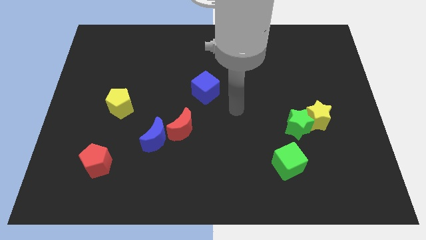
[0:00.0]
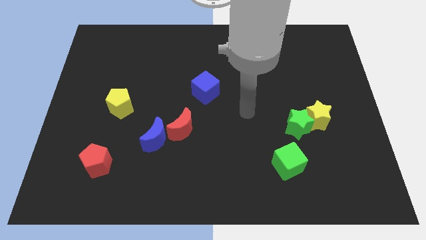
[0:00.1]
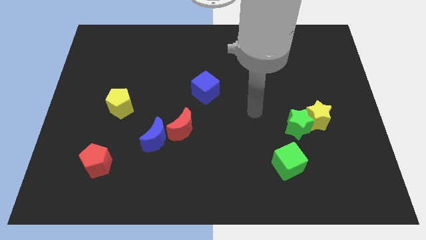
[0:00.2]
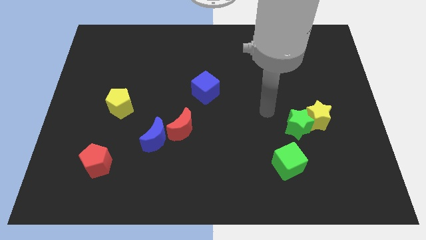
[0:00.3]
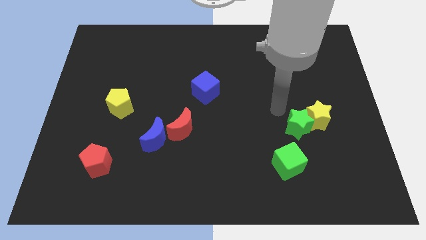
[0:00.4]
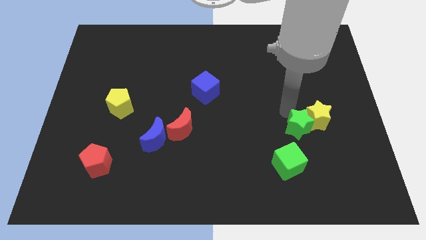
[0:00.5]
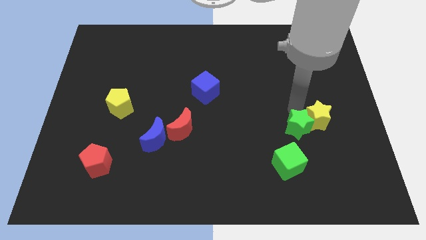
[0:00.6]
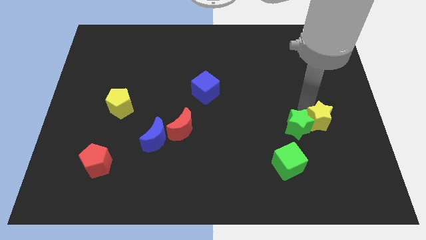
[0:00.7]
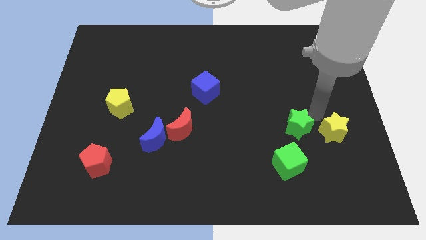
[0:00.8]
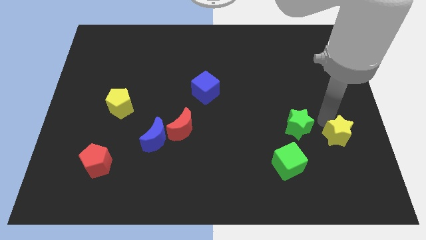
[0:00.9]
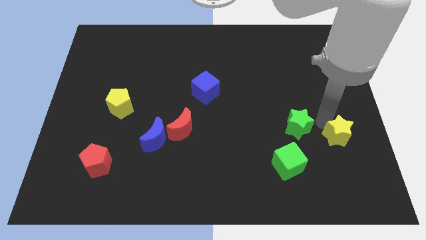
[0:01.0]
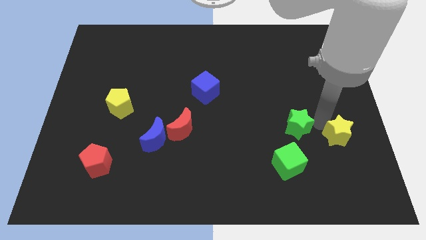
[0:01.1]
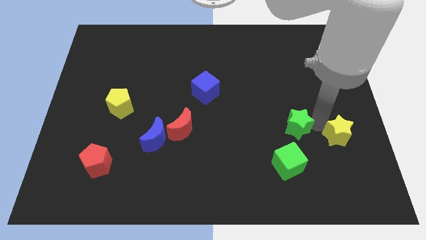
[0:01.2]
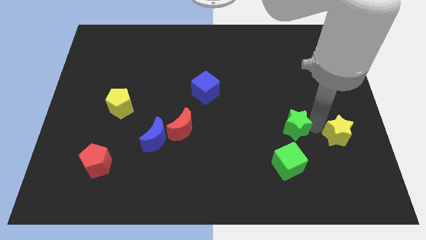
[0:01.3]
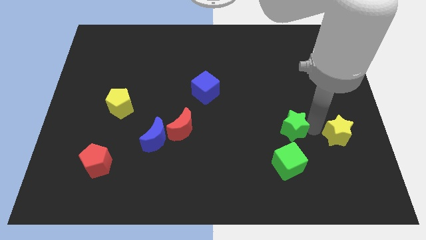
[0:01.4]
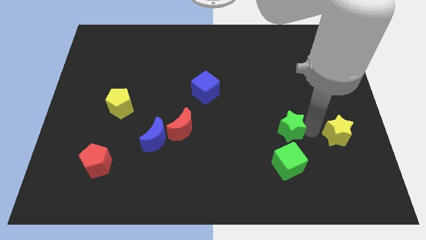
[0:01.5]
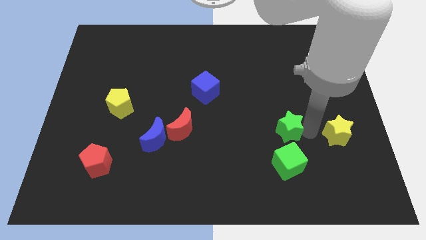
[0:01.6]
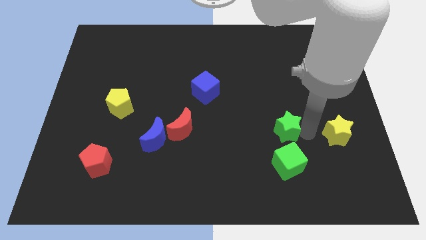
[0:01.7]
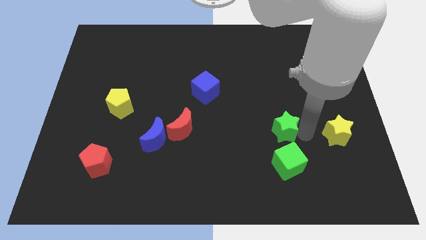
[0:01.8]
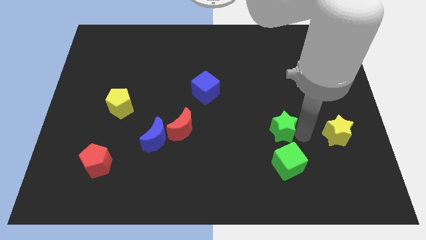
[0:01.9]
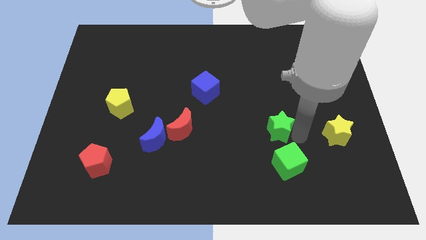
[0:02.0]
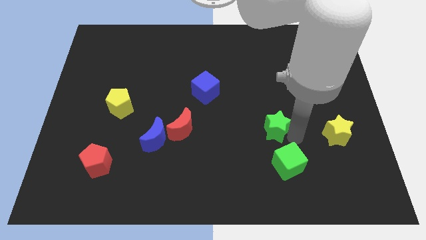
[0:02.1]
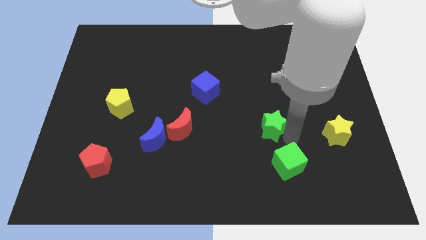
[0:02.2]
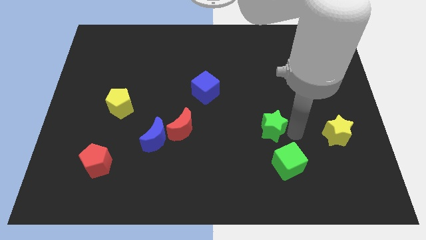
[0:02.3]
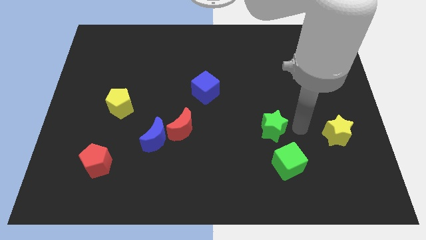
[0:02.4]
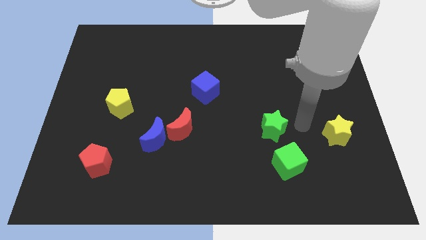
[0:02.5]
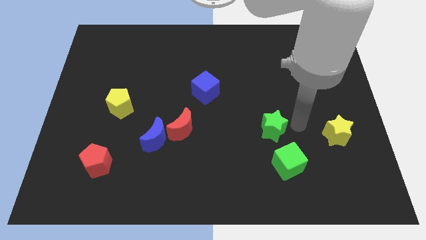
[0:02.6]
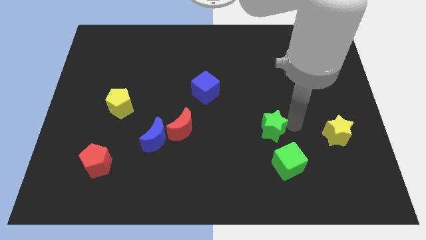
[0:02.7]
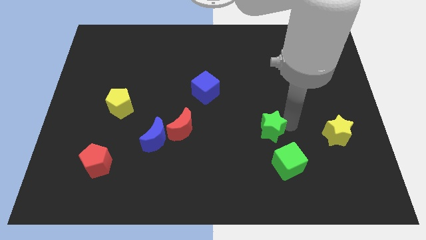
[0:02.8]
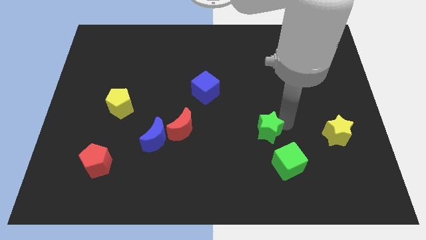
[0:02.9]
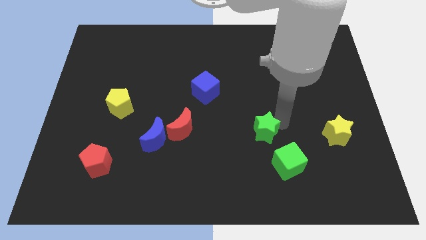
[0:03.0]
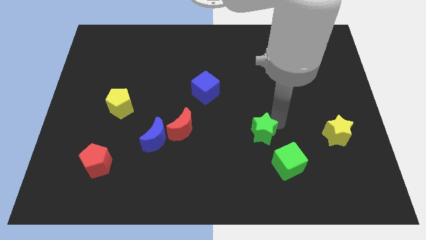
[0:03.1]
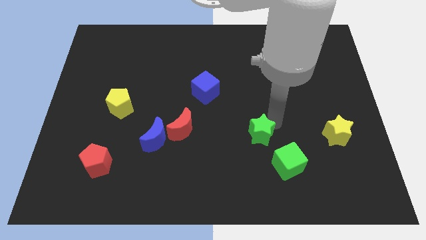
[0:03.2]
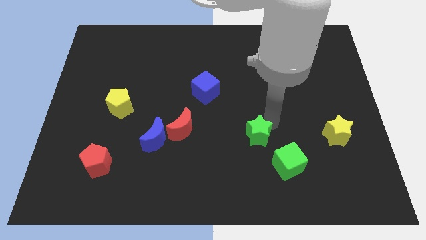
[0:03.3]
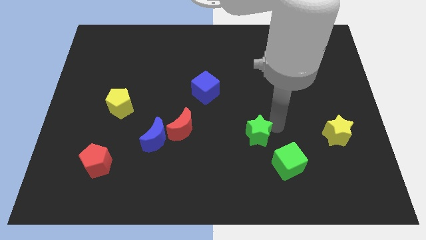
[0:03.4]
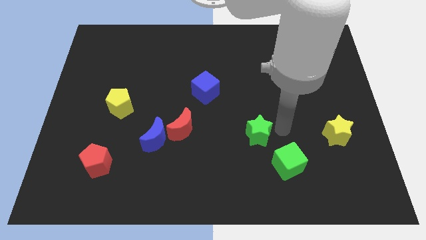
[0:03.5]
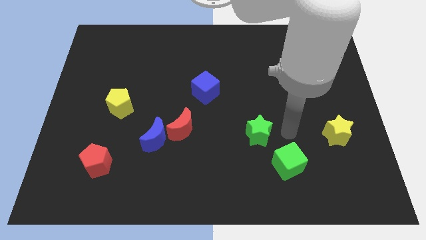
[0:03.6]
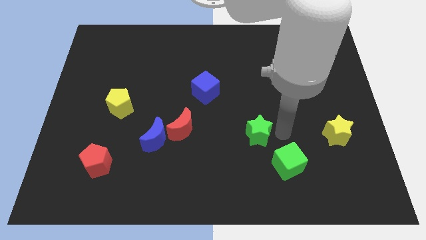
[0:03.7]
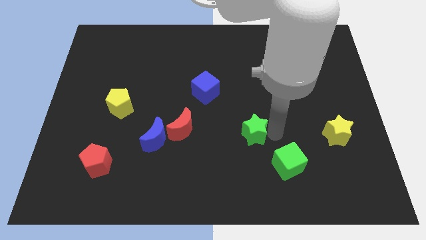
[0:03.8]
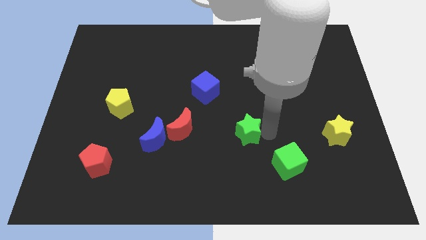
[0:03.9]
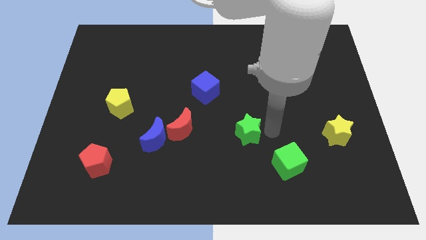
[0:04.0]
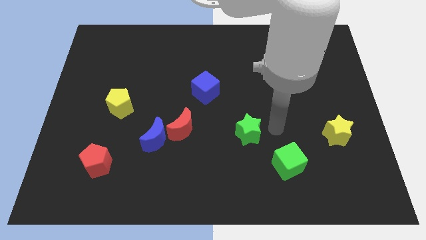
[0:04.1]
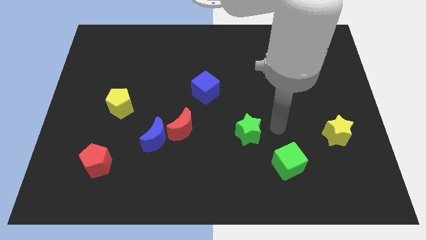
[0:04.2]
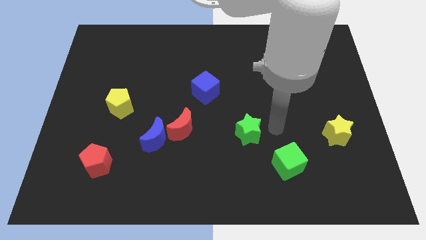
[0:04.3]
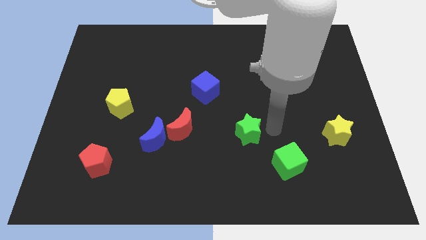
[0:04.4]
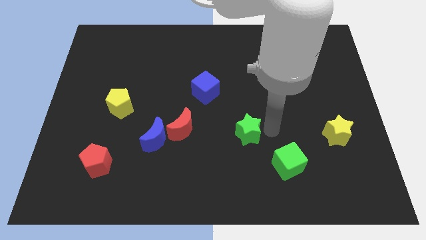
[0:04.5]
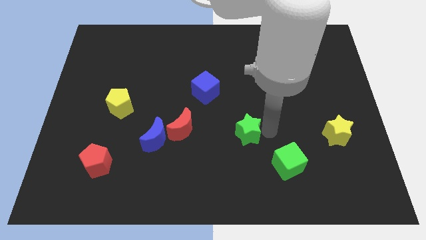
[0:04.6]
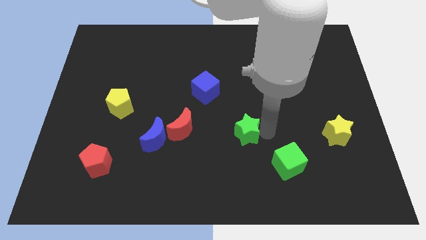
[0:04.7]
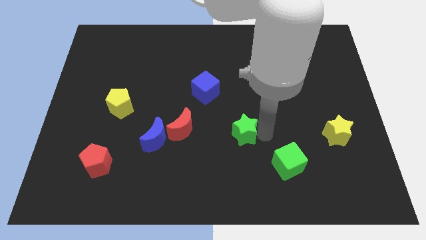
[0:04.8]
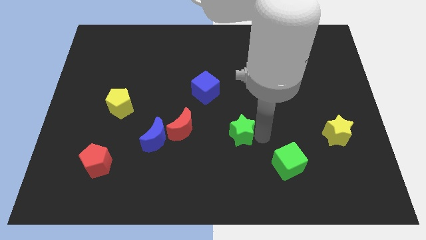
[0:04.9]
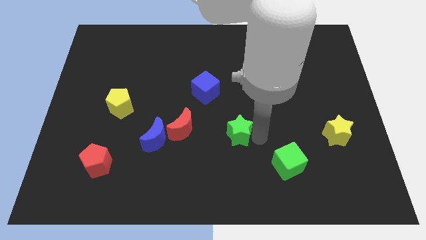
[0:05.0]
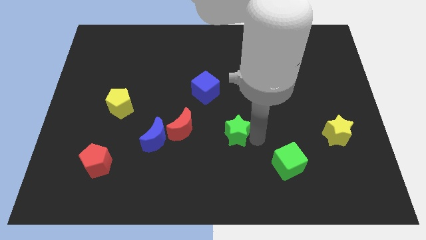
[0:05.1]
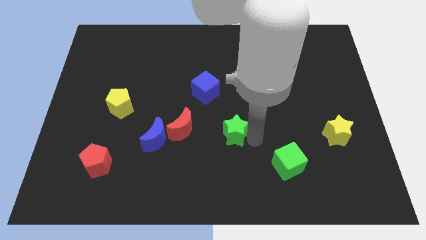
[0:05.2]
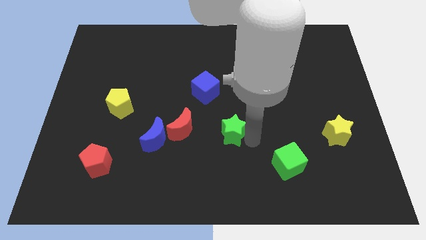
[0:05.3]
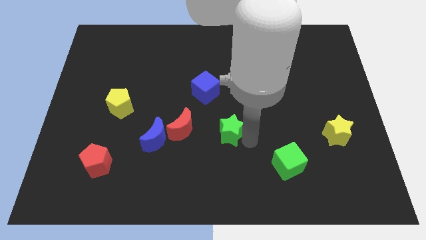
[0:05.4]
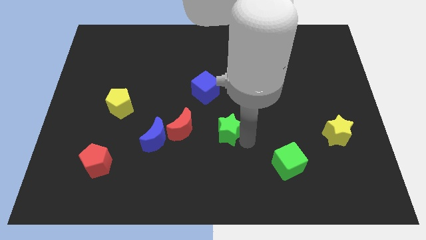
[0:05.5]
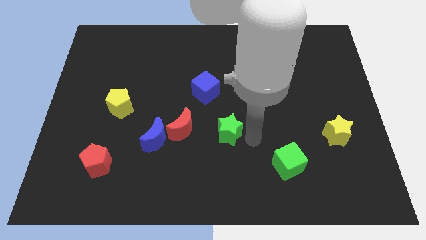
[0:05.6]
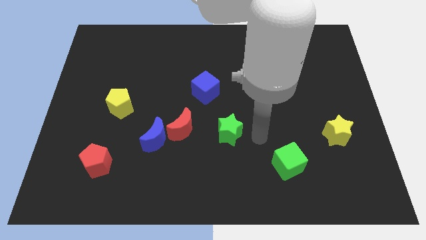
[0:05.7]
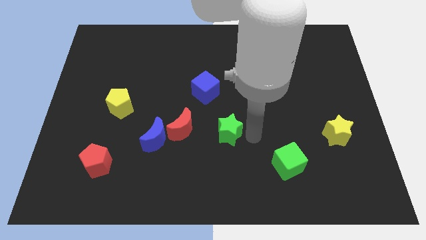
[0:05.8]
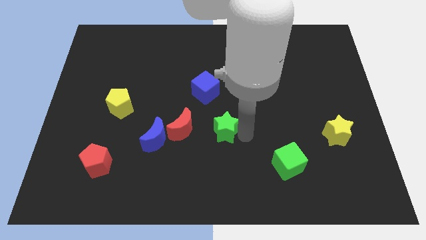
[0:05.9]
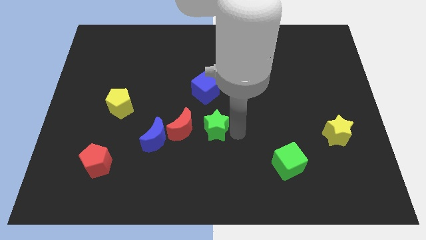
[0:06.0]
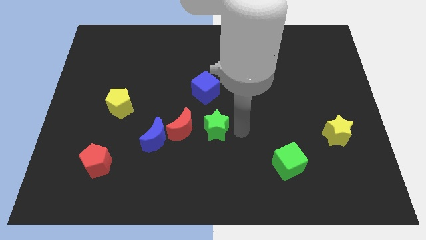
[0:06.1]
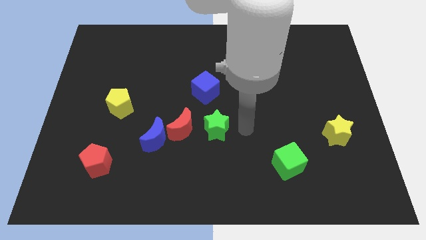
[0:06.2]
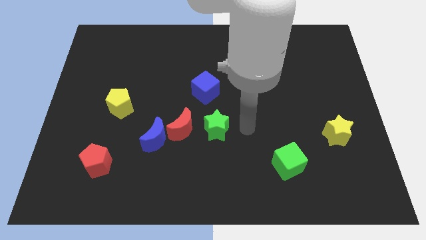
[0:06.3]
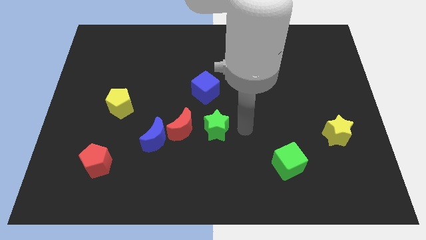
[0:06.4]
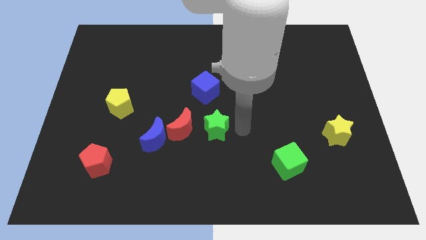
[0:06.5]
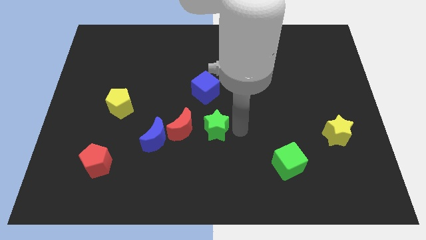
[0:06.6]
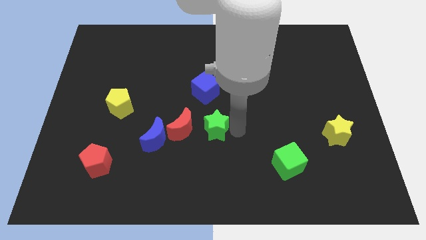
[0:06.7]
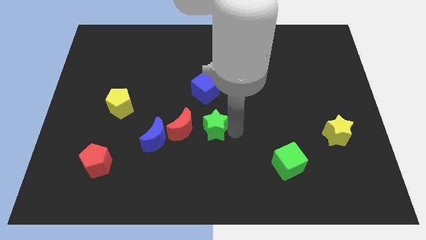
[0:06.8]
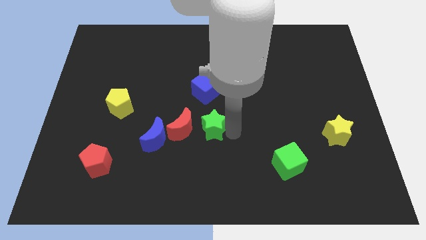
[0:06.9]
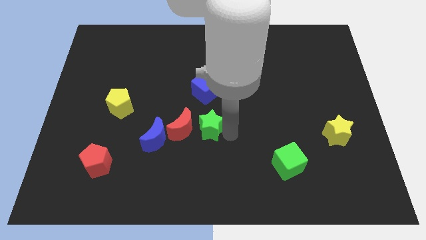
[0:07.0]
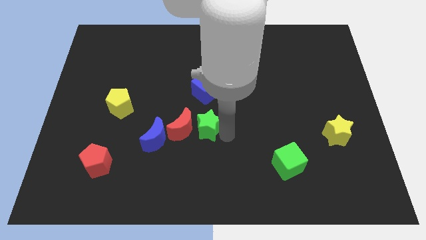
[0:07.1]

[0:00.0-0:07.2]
move the green star to the red moon

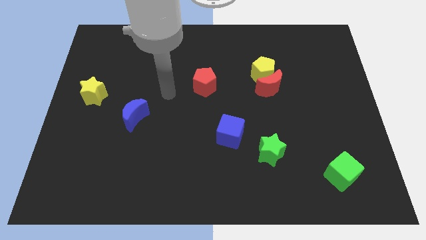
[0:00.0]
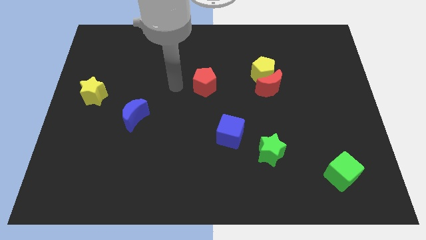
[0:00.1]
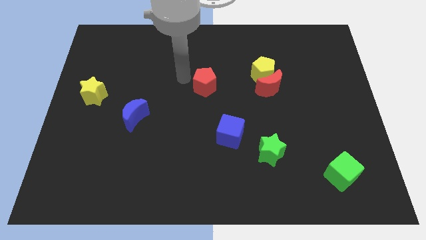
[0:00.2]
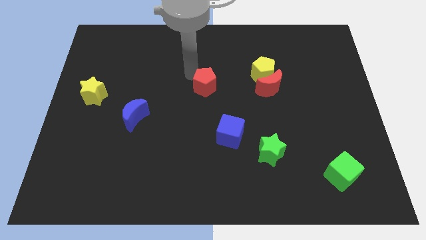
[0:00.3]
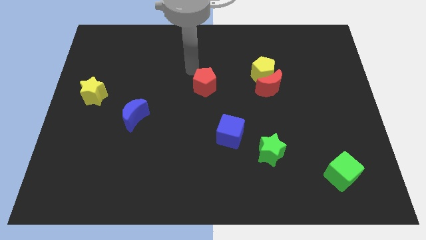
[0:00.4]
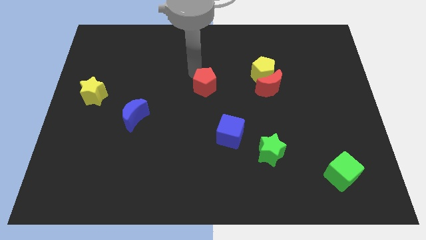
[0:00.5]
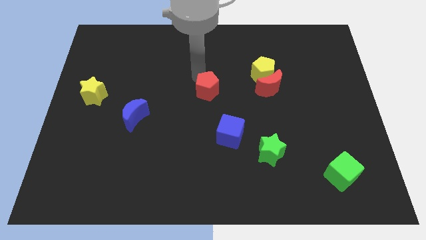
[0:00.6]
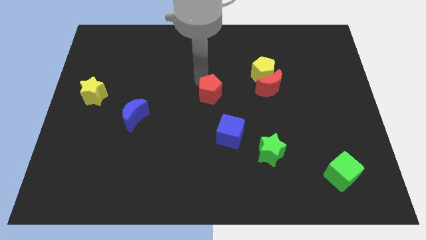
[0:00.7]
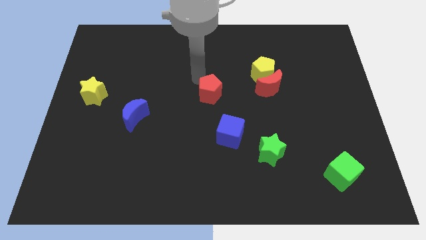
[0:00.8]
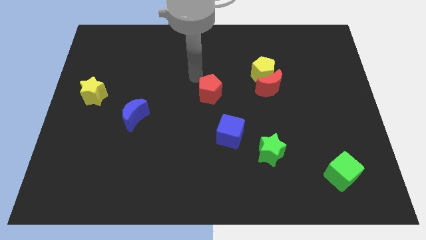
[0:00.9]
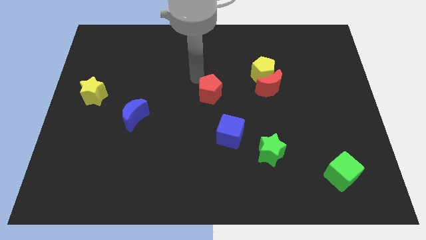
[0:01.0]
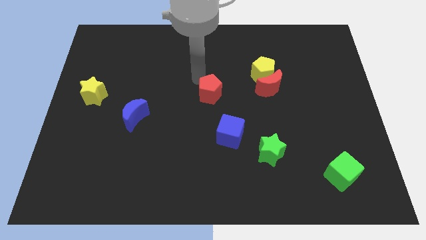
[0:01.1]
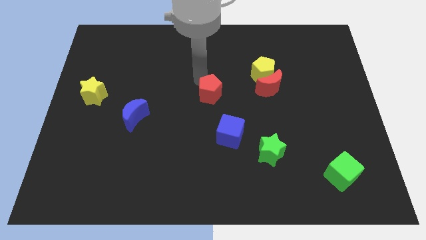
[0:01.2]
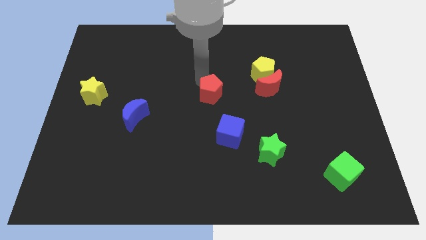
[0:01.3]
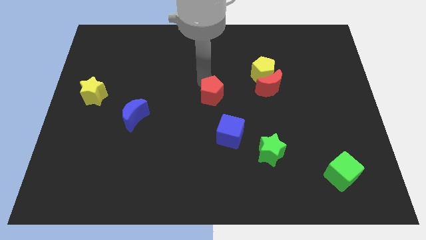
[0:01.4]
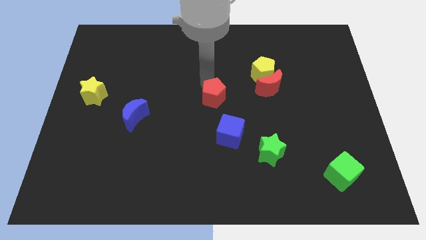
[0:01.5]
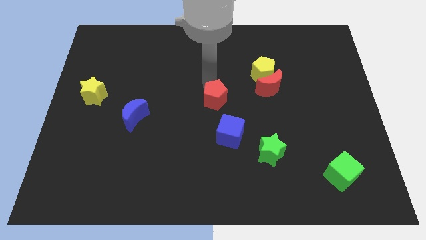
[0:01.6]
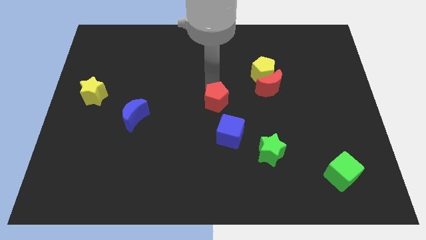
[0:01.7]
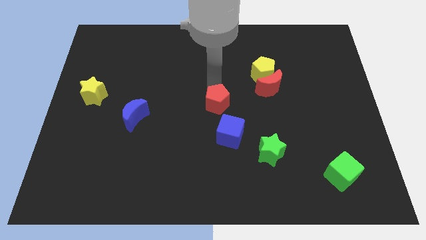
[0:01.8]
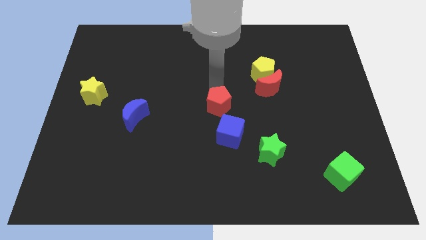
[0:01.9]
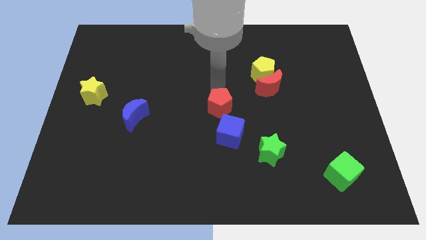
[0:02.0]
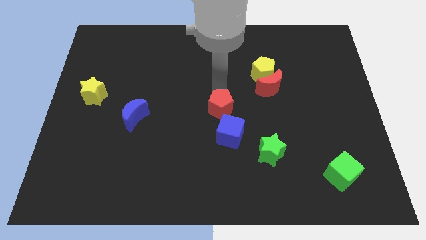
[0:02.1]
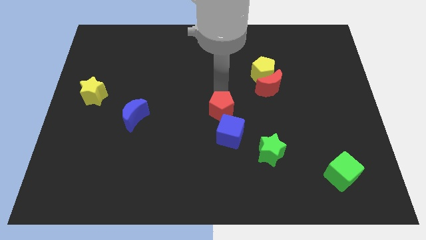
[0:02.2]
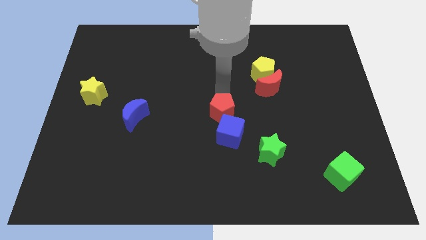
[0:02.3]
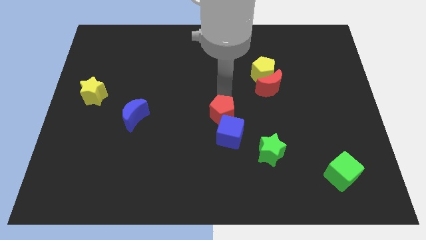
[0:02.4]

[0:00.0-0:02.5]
slide the red pentagon towards the blue cube
